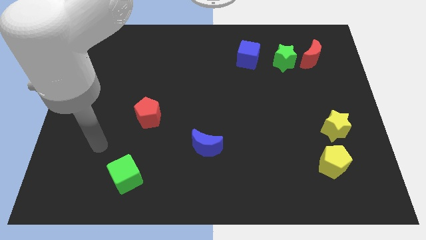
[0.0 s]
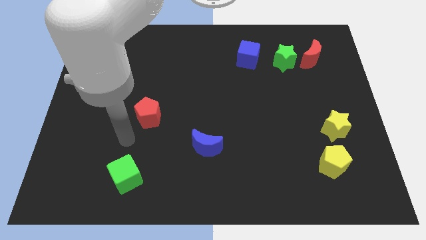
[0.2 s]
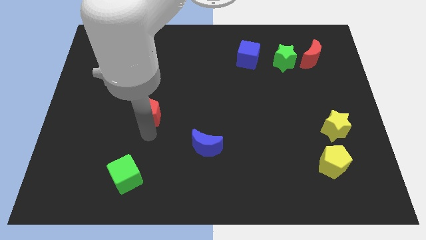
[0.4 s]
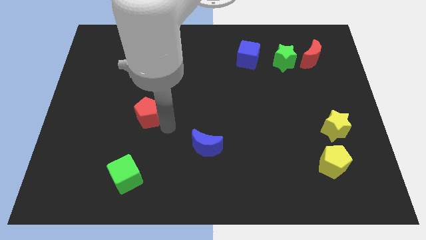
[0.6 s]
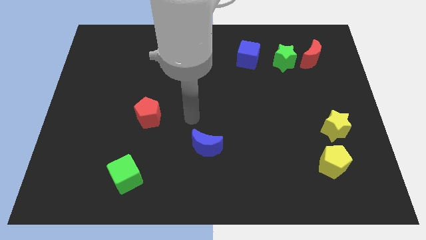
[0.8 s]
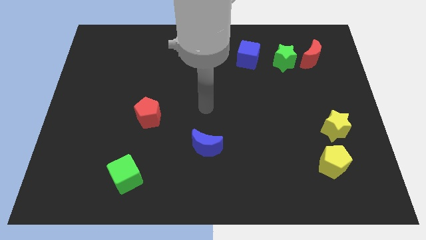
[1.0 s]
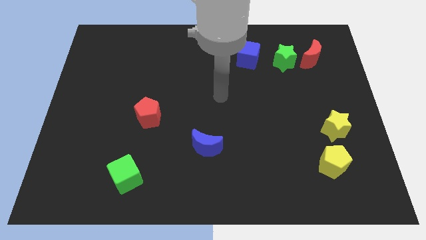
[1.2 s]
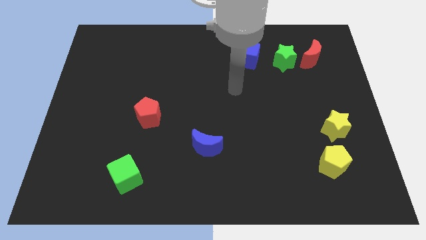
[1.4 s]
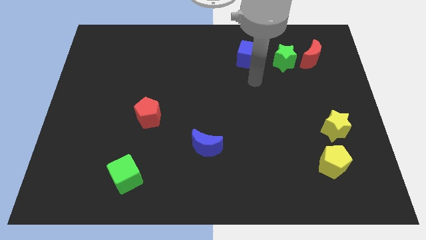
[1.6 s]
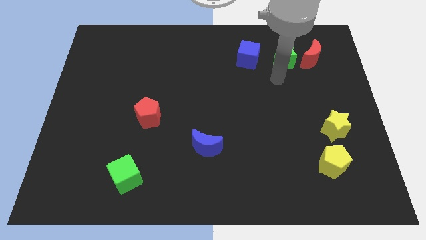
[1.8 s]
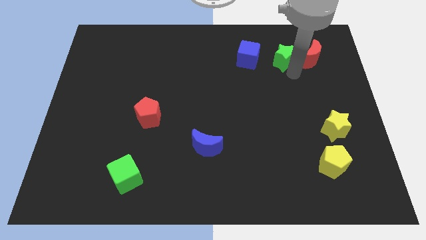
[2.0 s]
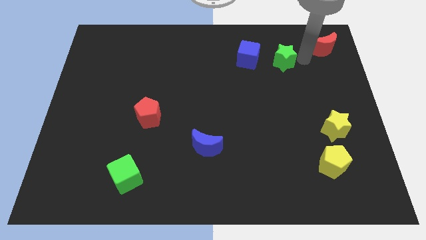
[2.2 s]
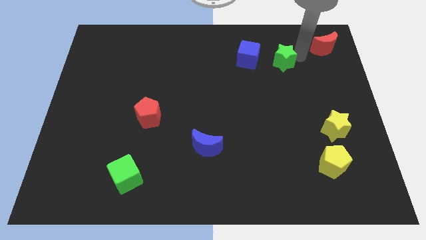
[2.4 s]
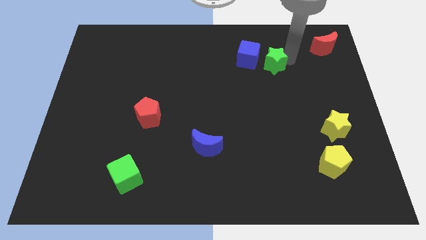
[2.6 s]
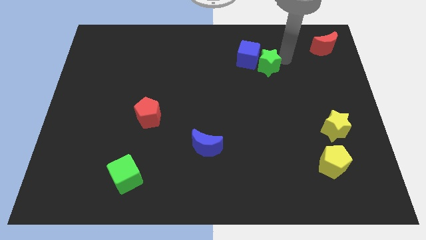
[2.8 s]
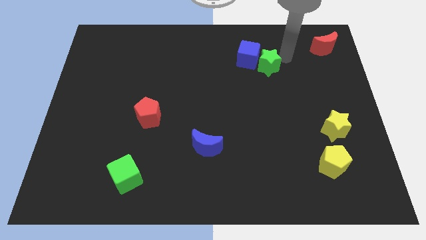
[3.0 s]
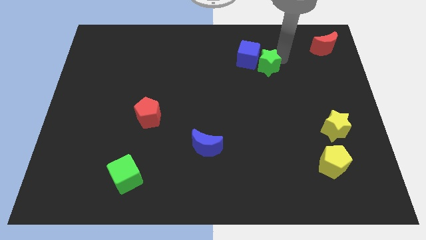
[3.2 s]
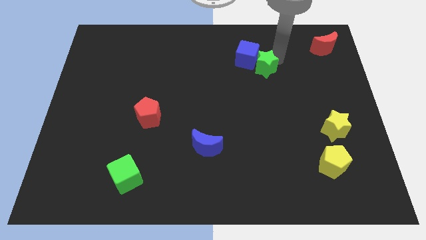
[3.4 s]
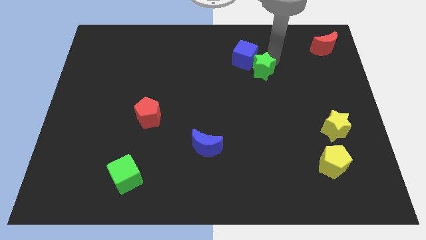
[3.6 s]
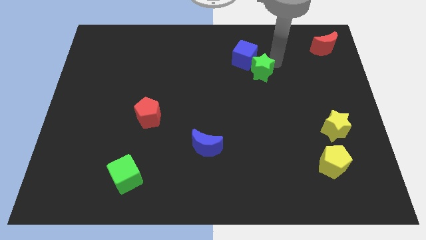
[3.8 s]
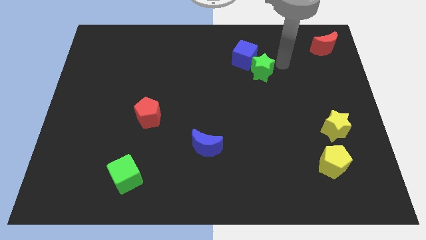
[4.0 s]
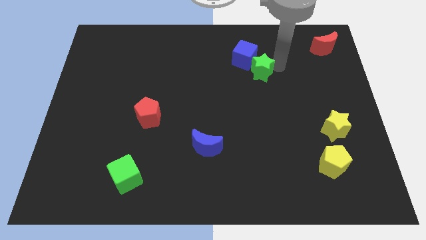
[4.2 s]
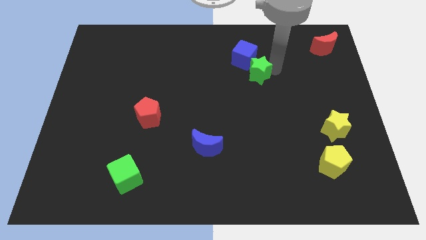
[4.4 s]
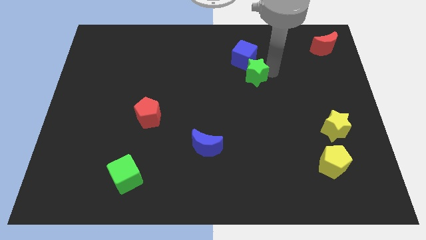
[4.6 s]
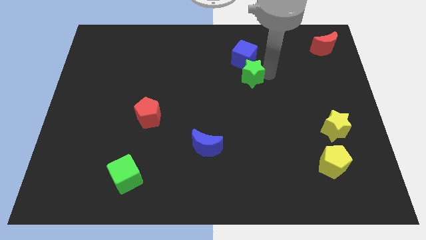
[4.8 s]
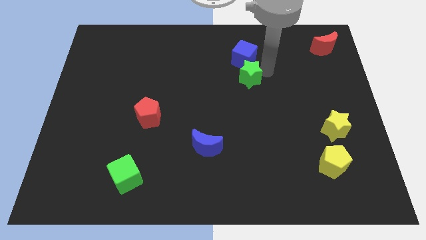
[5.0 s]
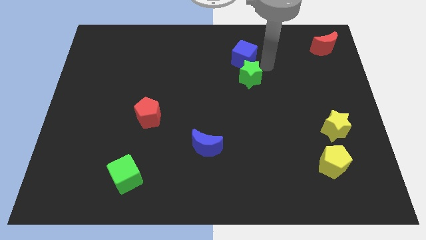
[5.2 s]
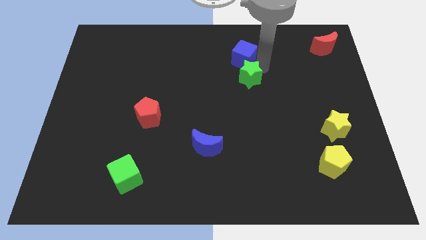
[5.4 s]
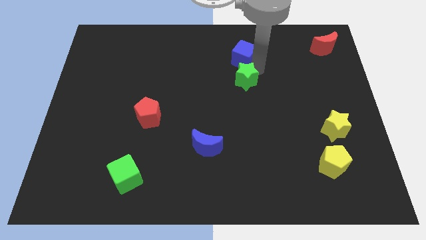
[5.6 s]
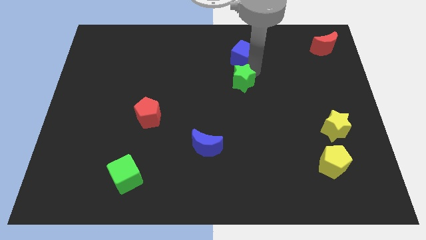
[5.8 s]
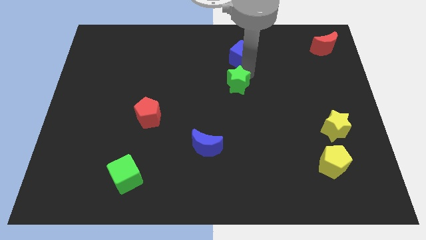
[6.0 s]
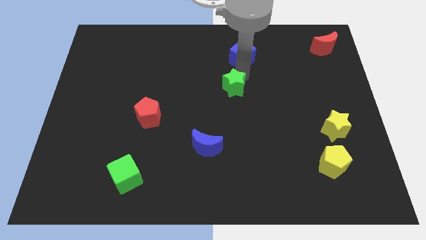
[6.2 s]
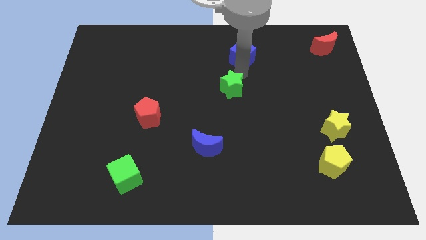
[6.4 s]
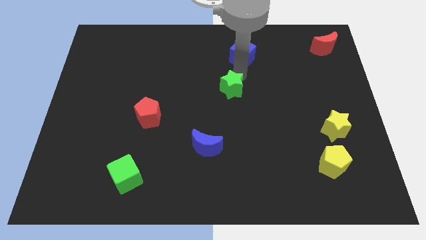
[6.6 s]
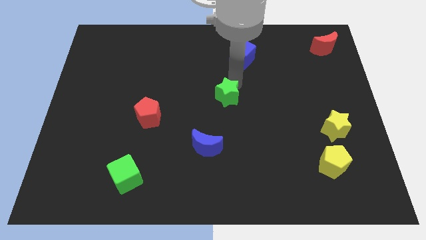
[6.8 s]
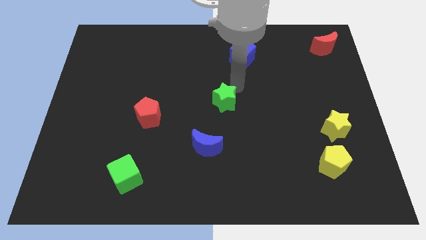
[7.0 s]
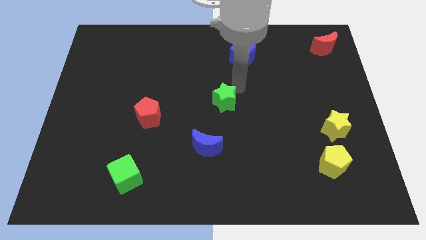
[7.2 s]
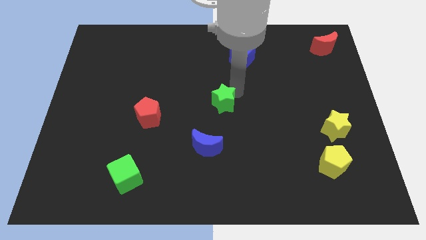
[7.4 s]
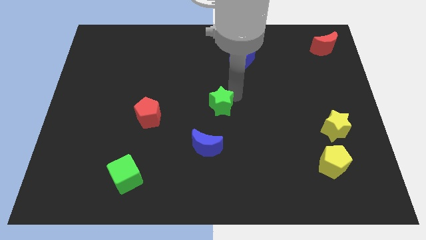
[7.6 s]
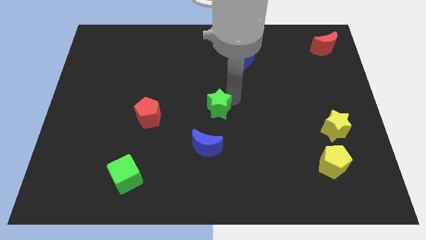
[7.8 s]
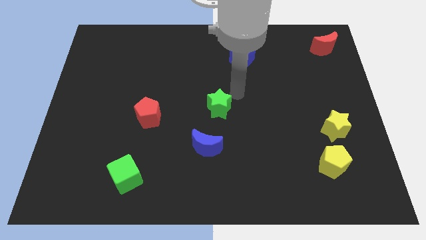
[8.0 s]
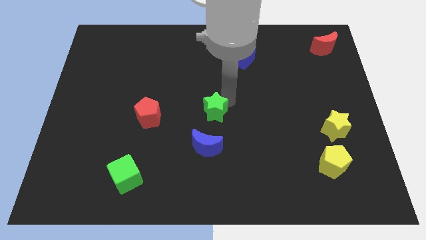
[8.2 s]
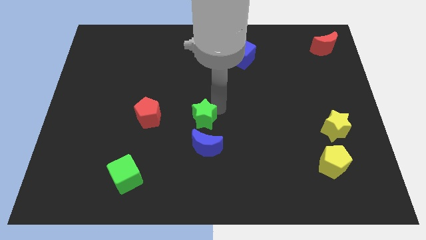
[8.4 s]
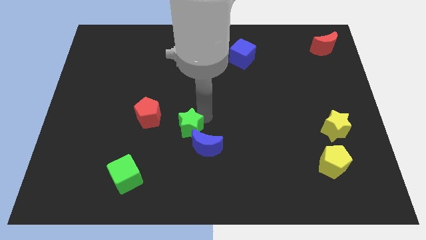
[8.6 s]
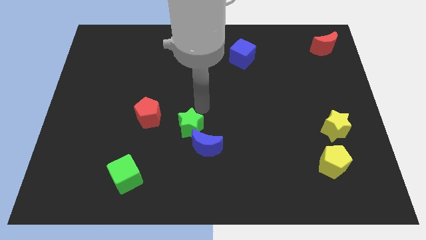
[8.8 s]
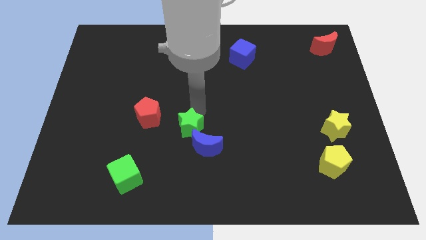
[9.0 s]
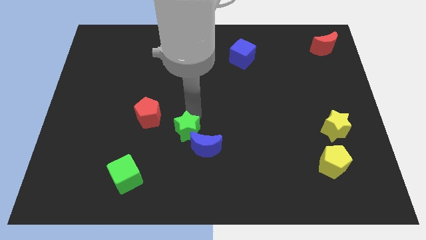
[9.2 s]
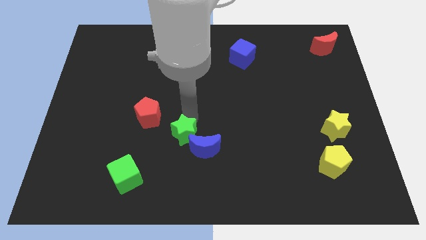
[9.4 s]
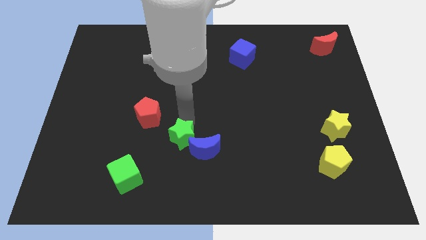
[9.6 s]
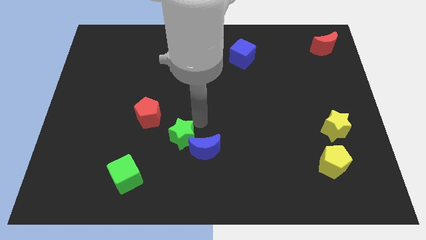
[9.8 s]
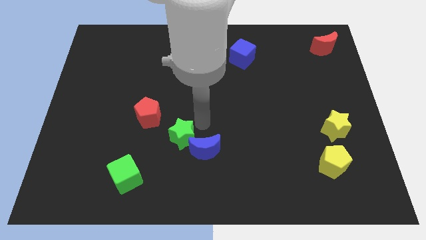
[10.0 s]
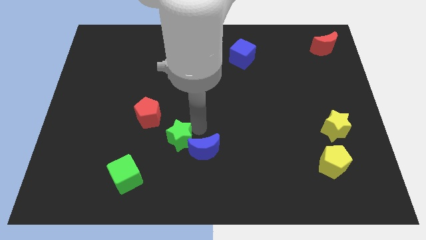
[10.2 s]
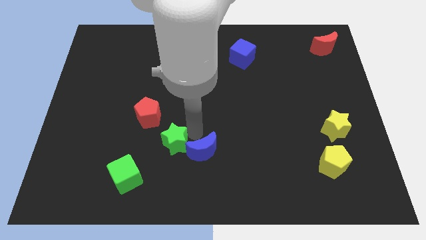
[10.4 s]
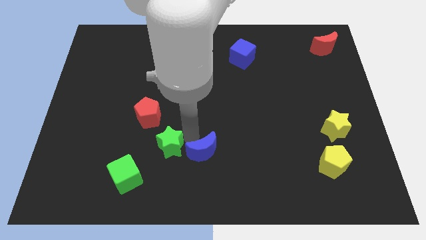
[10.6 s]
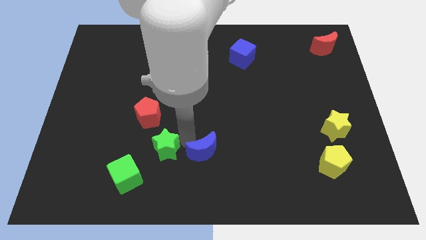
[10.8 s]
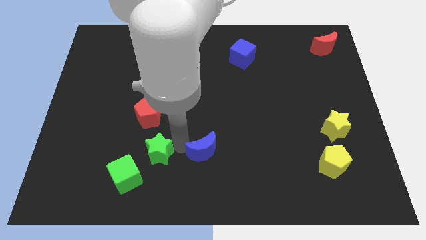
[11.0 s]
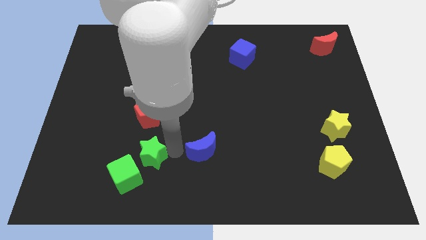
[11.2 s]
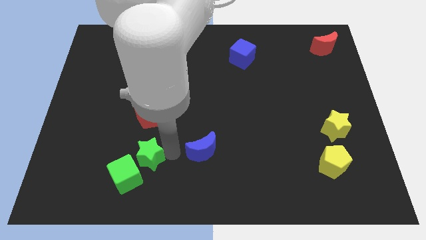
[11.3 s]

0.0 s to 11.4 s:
move the green star close to the green cube

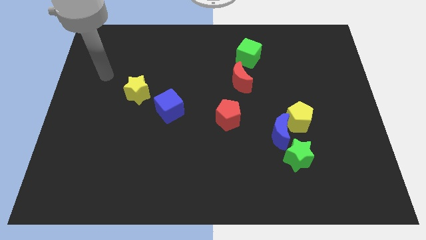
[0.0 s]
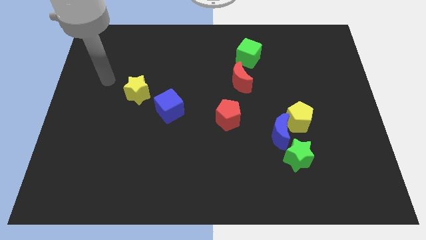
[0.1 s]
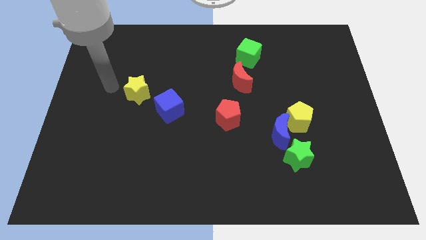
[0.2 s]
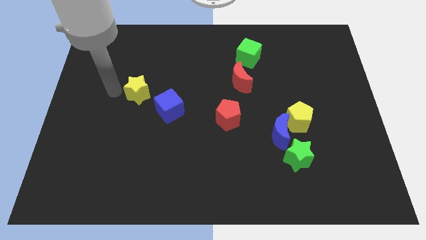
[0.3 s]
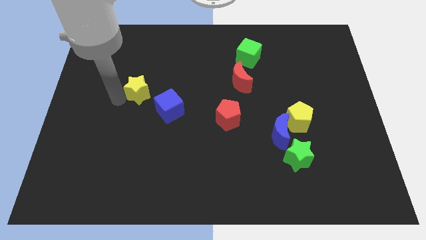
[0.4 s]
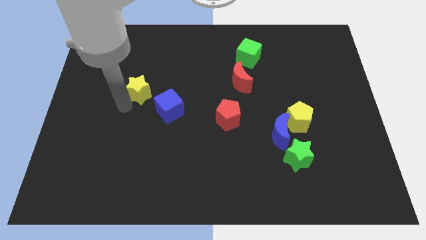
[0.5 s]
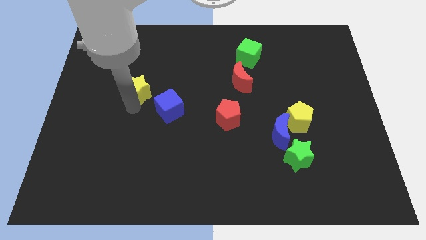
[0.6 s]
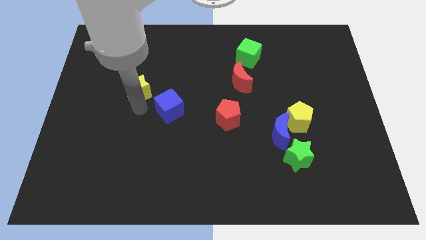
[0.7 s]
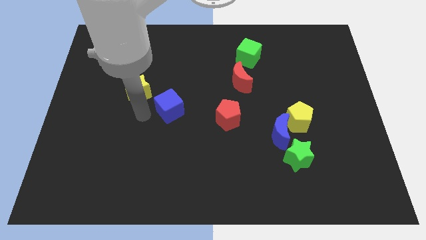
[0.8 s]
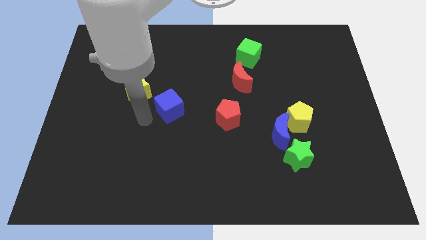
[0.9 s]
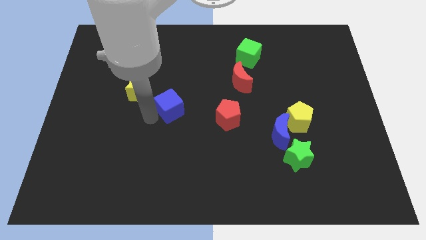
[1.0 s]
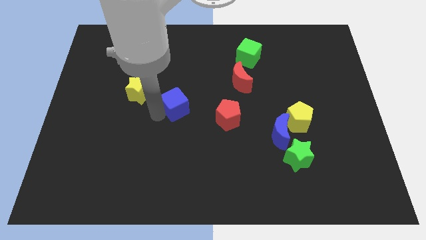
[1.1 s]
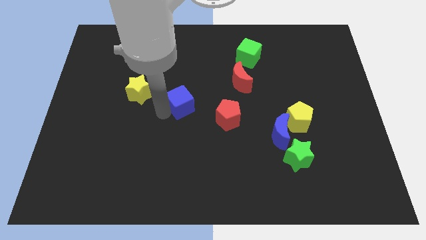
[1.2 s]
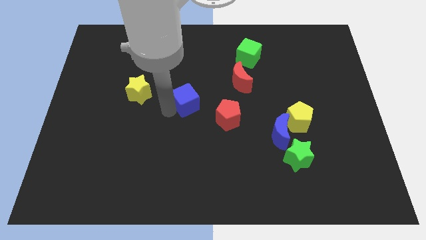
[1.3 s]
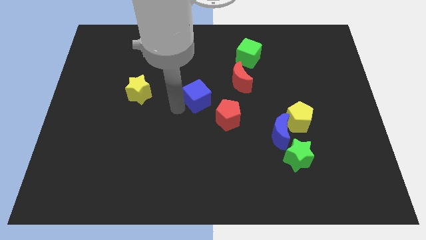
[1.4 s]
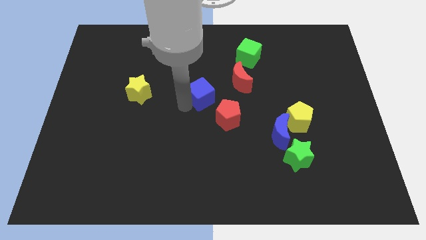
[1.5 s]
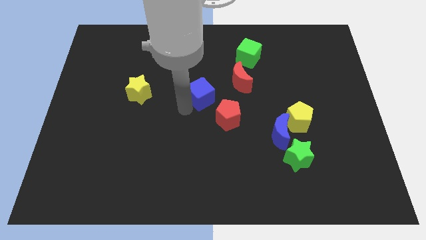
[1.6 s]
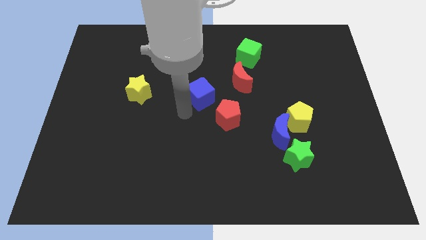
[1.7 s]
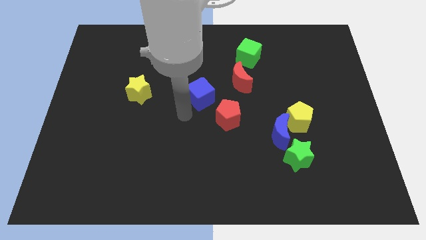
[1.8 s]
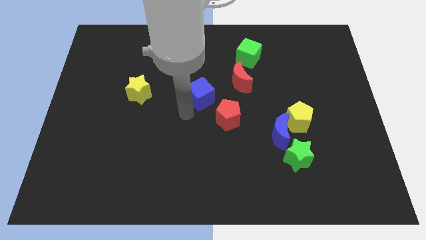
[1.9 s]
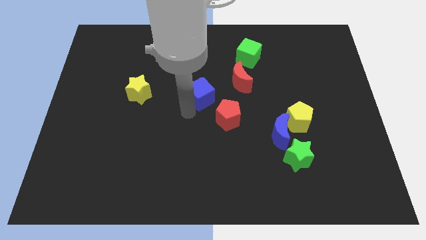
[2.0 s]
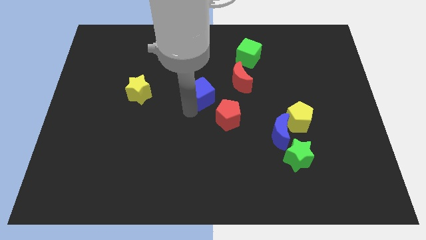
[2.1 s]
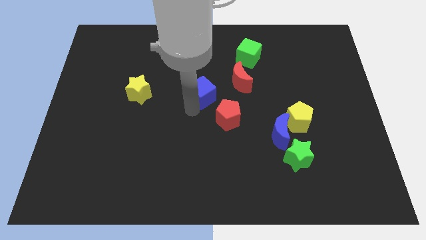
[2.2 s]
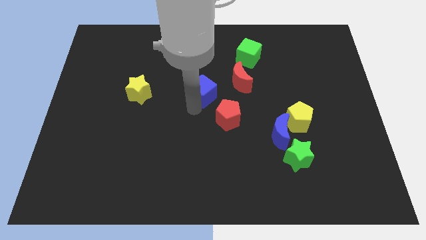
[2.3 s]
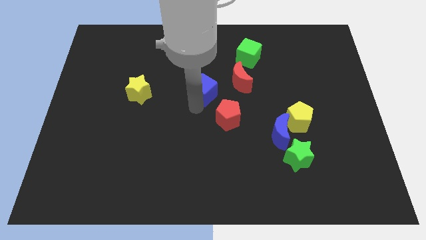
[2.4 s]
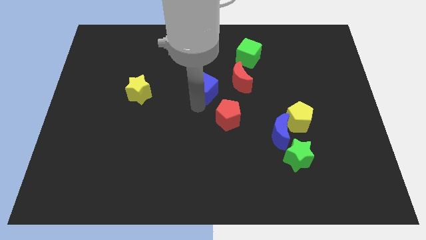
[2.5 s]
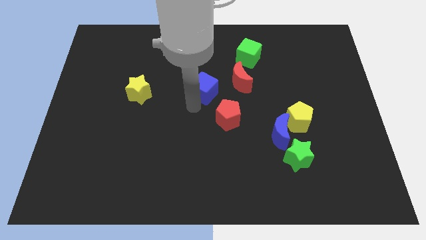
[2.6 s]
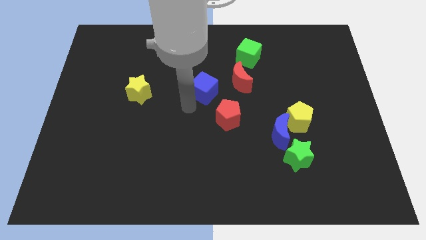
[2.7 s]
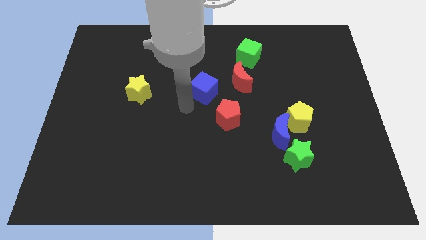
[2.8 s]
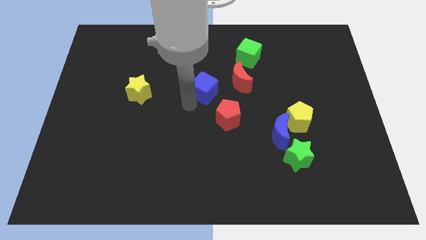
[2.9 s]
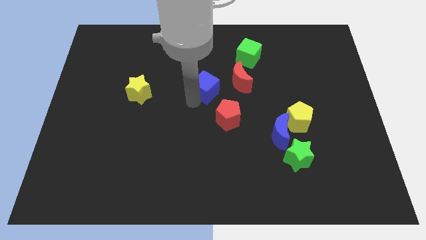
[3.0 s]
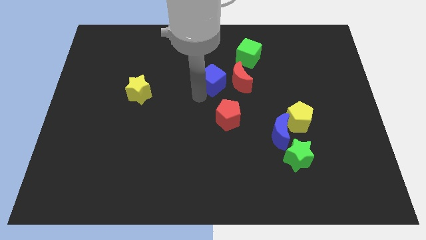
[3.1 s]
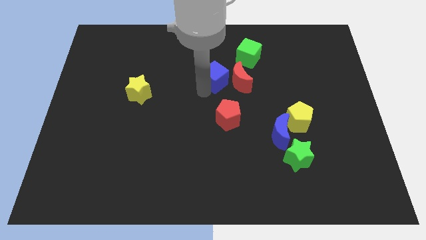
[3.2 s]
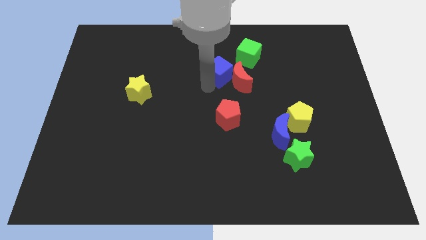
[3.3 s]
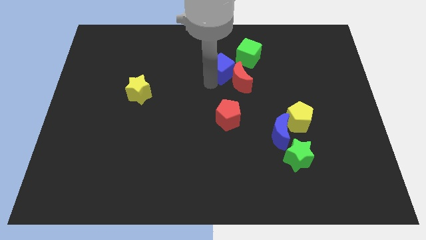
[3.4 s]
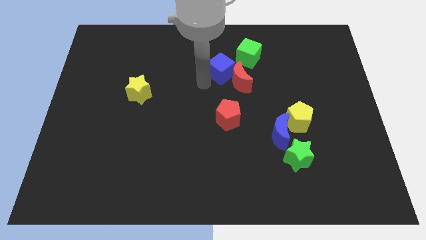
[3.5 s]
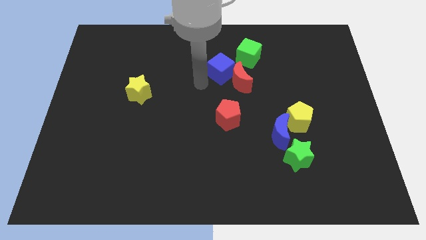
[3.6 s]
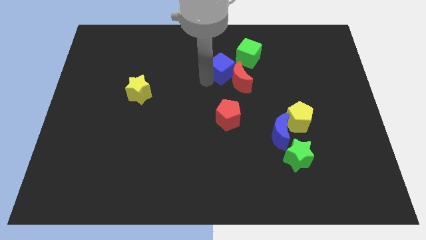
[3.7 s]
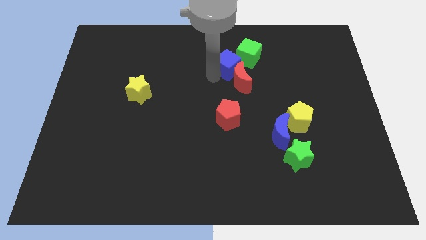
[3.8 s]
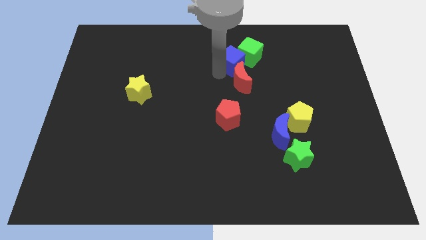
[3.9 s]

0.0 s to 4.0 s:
push the blue cube close to the green cube
